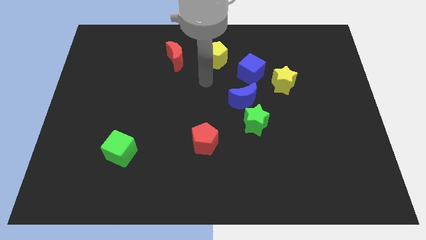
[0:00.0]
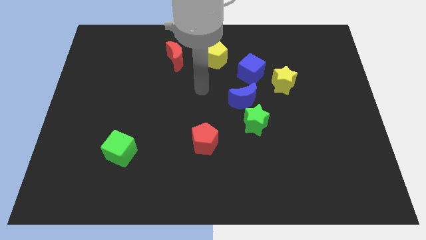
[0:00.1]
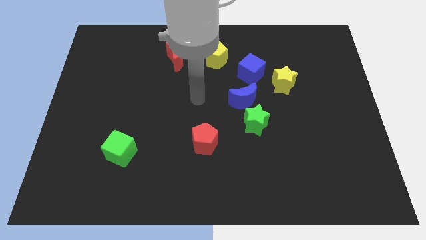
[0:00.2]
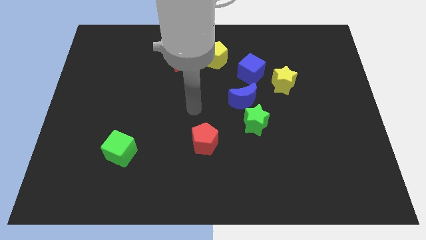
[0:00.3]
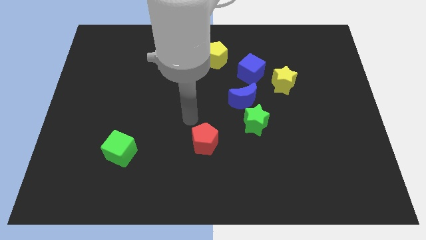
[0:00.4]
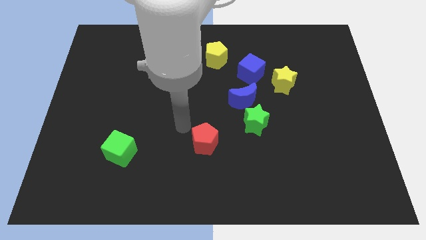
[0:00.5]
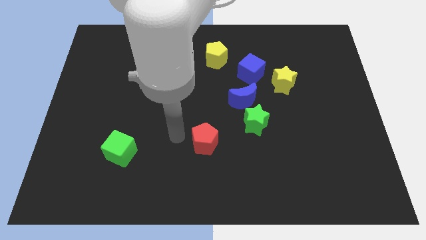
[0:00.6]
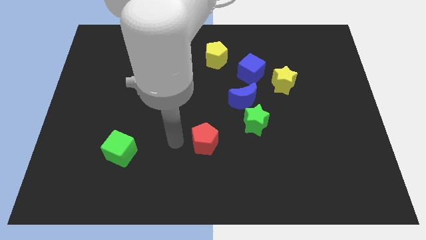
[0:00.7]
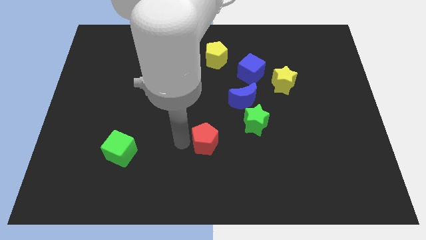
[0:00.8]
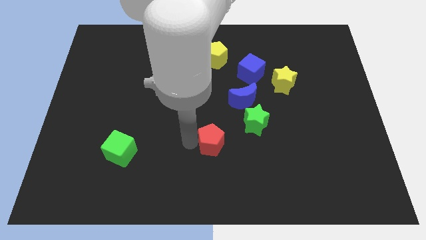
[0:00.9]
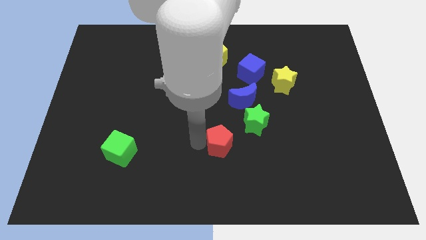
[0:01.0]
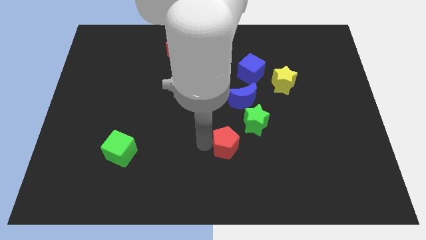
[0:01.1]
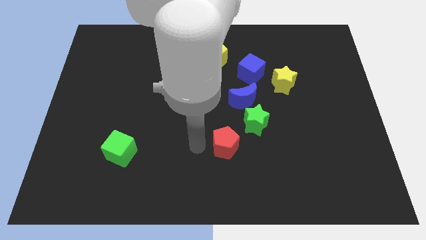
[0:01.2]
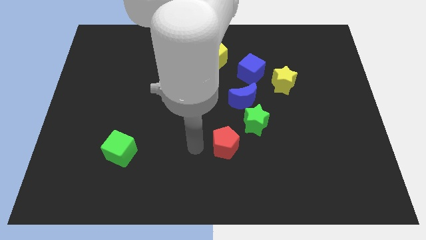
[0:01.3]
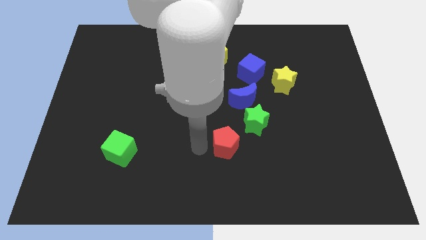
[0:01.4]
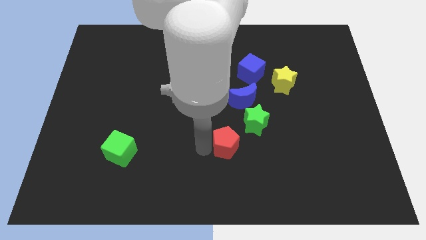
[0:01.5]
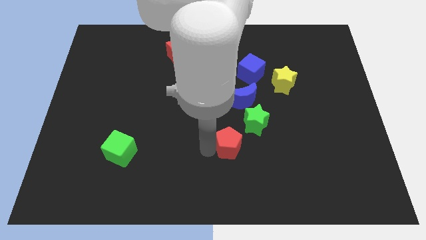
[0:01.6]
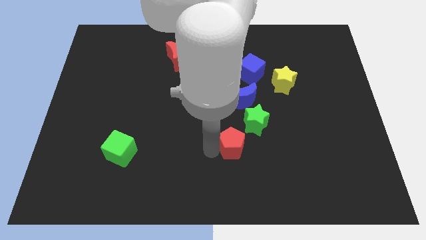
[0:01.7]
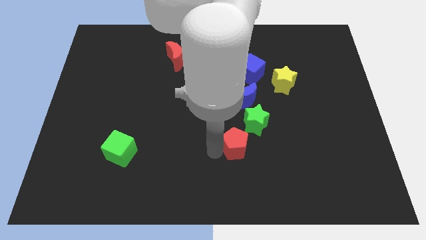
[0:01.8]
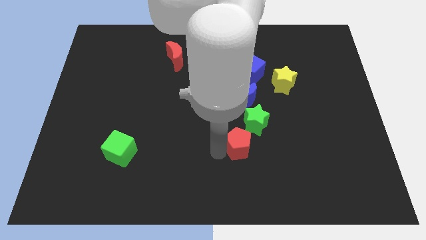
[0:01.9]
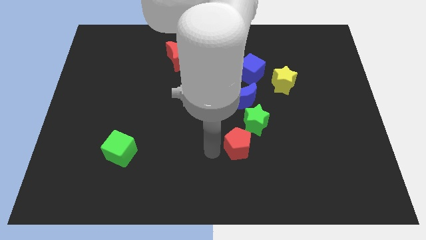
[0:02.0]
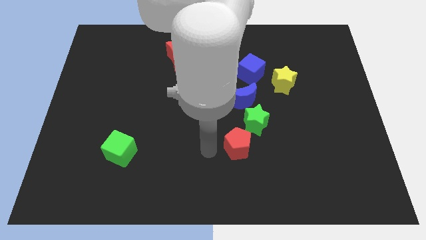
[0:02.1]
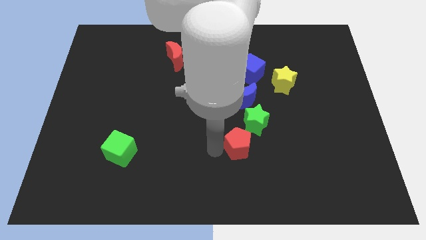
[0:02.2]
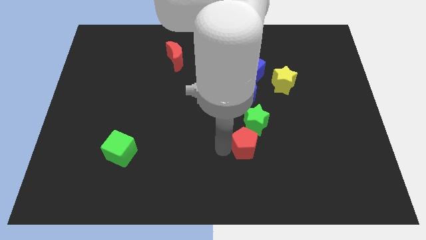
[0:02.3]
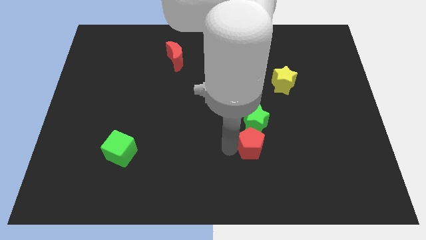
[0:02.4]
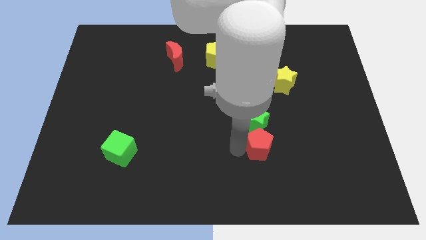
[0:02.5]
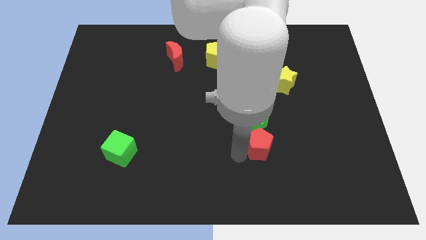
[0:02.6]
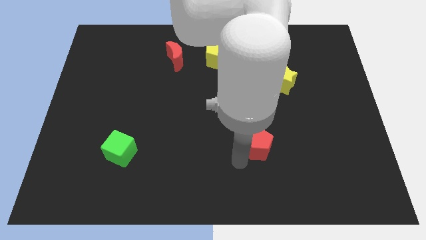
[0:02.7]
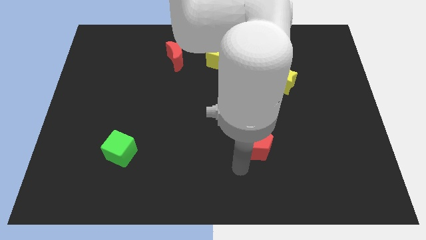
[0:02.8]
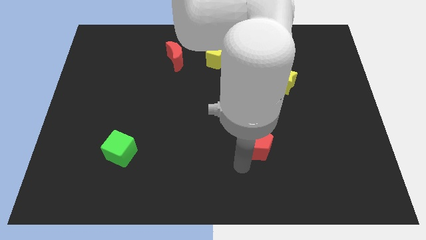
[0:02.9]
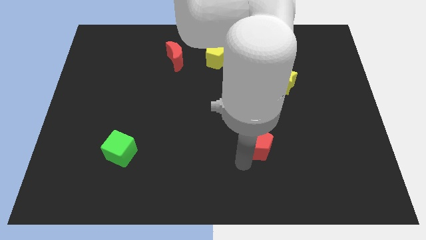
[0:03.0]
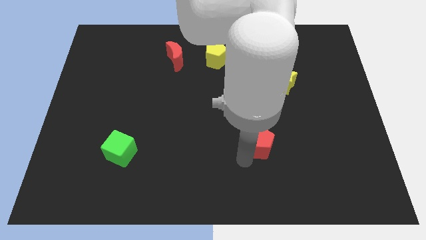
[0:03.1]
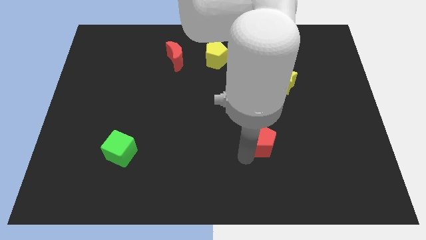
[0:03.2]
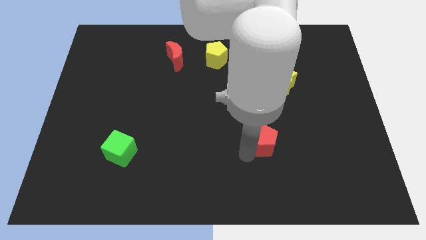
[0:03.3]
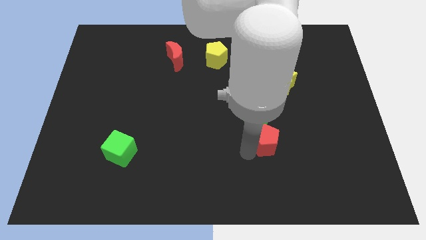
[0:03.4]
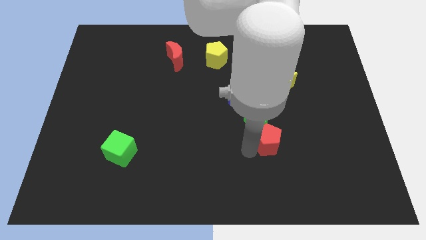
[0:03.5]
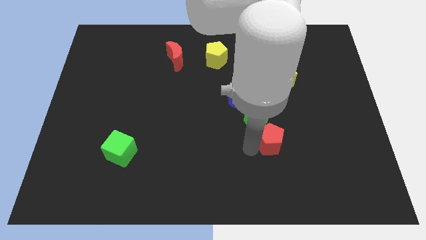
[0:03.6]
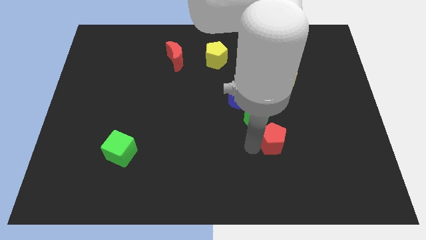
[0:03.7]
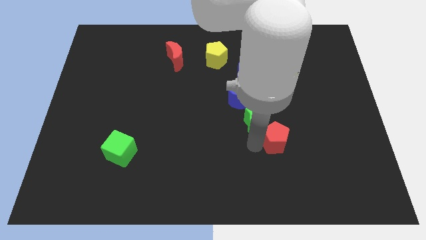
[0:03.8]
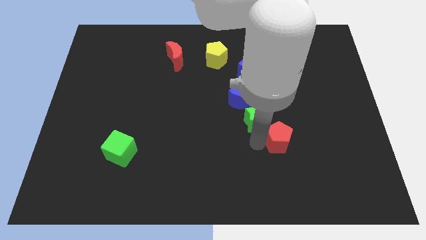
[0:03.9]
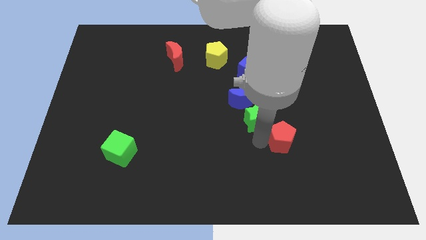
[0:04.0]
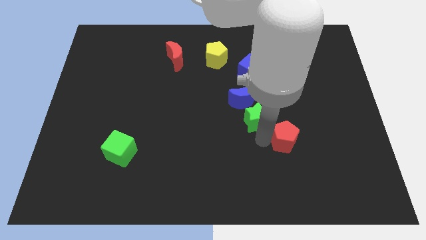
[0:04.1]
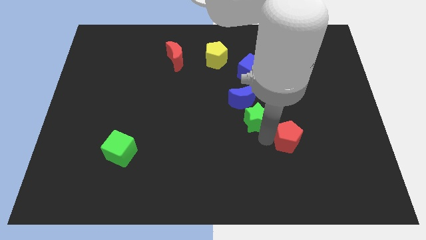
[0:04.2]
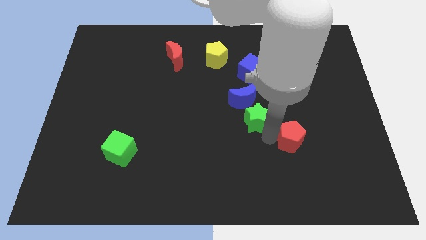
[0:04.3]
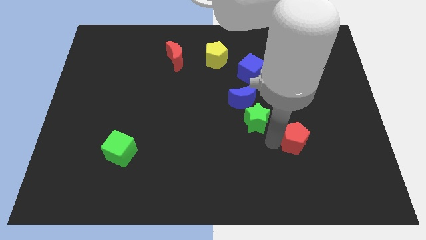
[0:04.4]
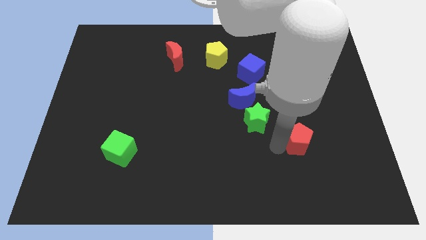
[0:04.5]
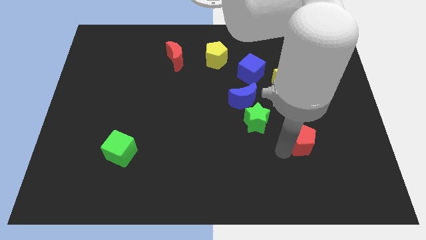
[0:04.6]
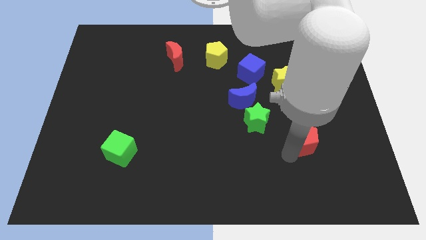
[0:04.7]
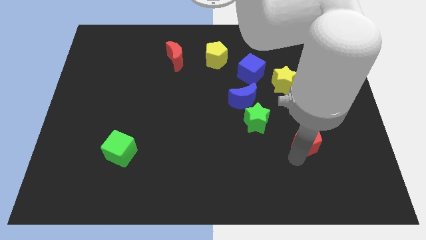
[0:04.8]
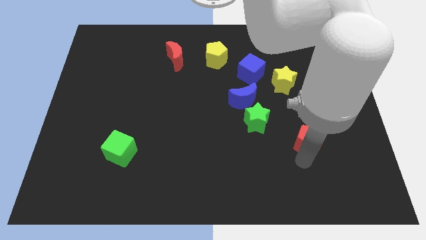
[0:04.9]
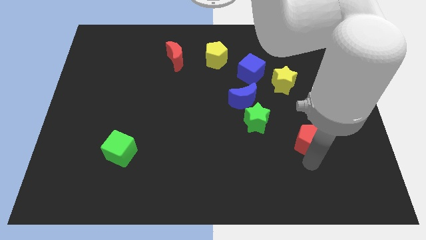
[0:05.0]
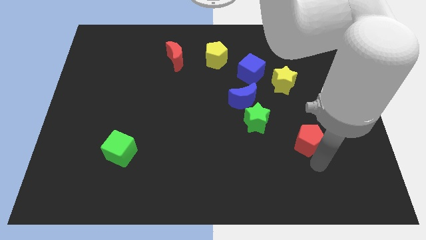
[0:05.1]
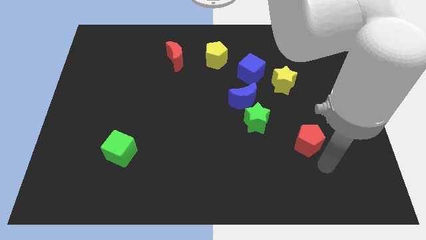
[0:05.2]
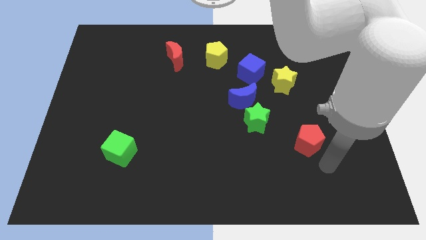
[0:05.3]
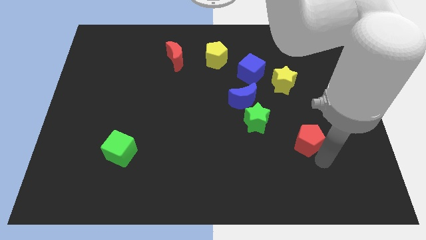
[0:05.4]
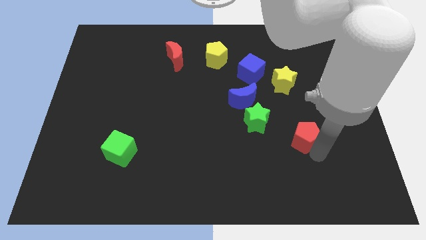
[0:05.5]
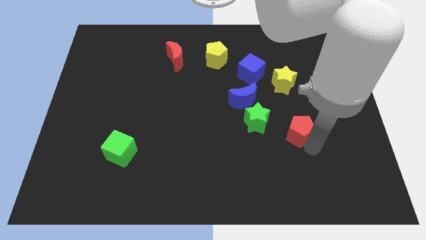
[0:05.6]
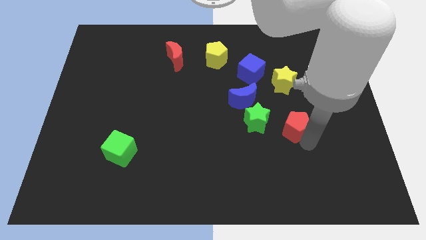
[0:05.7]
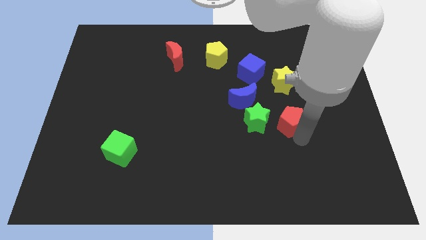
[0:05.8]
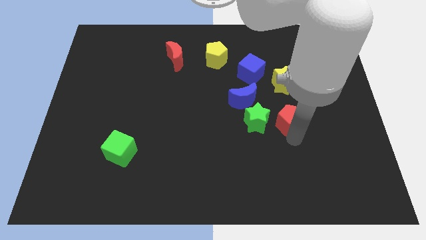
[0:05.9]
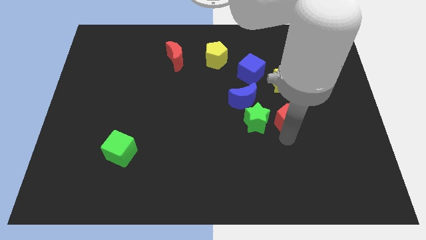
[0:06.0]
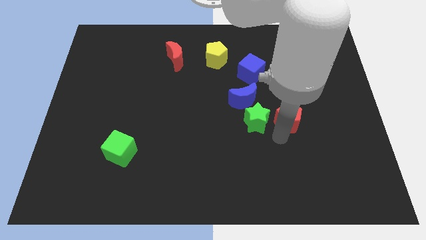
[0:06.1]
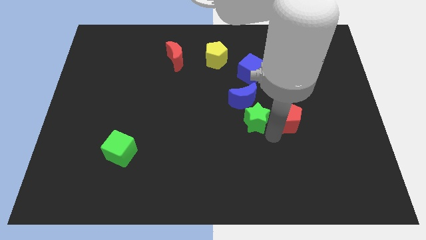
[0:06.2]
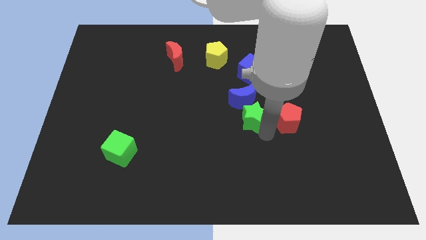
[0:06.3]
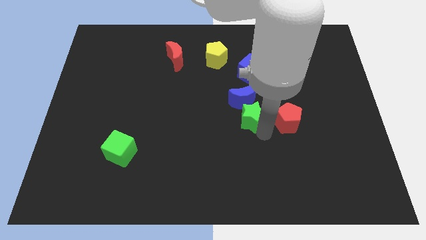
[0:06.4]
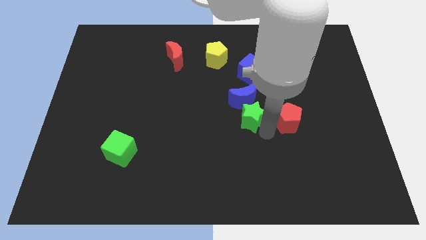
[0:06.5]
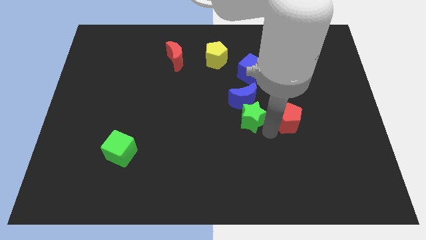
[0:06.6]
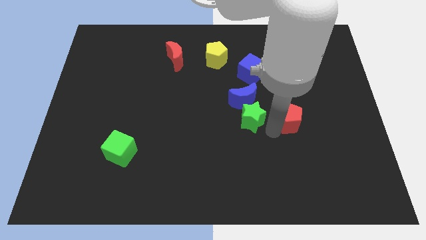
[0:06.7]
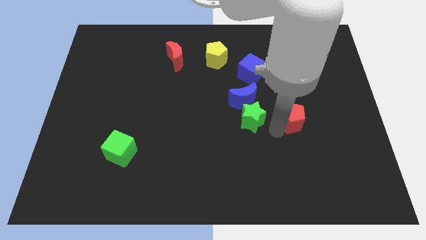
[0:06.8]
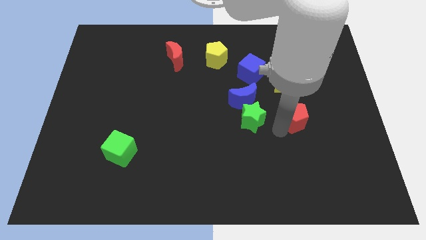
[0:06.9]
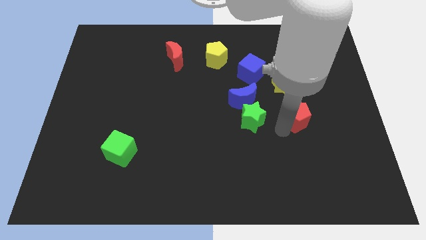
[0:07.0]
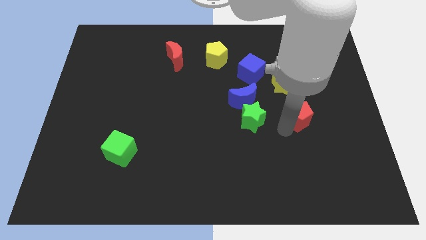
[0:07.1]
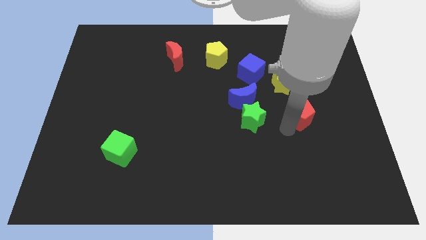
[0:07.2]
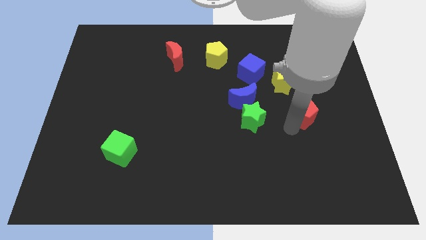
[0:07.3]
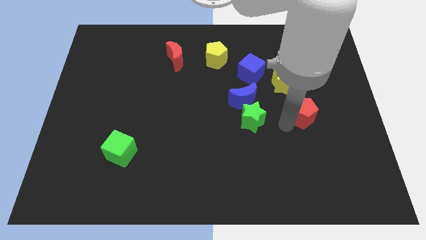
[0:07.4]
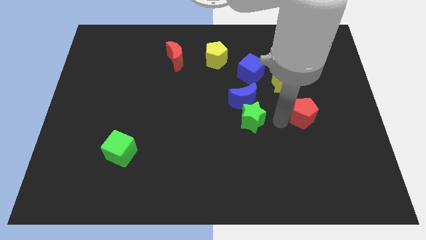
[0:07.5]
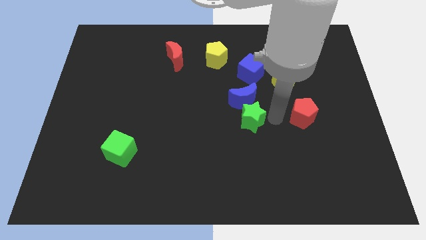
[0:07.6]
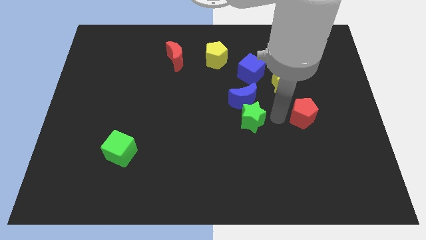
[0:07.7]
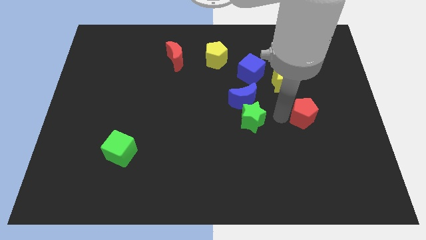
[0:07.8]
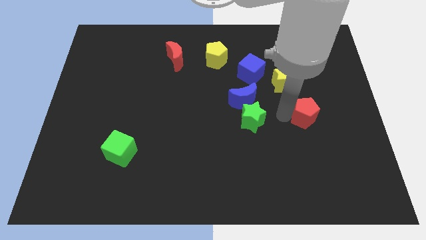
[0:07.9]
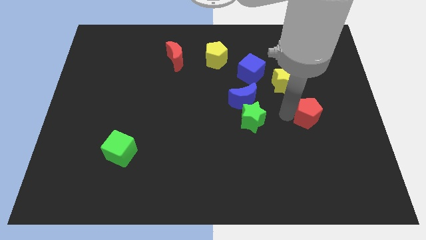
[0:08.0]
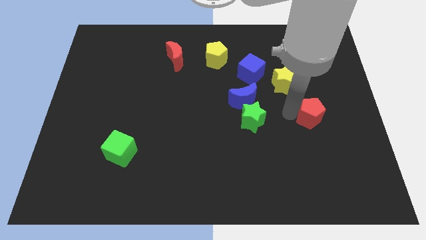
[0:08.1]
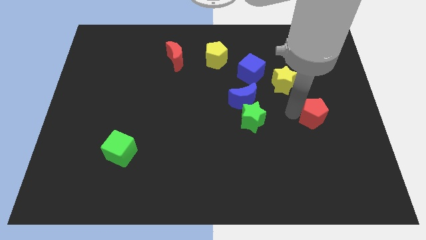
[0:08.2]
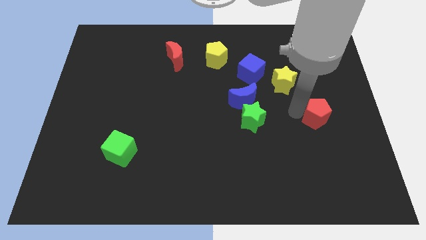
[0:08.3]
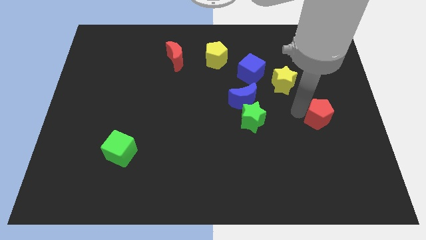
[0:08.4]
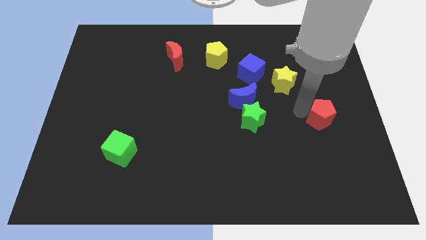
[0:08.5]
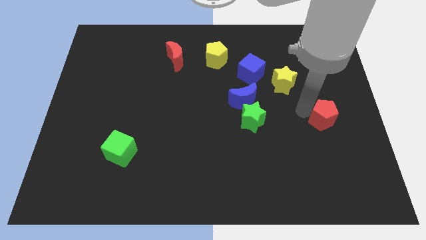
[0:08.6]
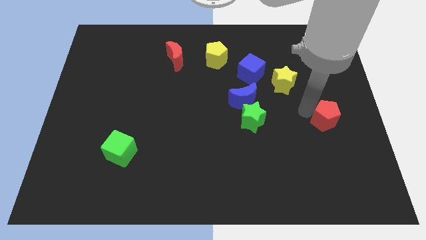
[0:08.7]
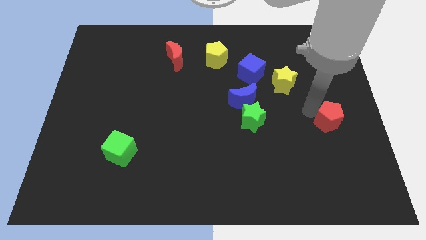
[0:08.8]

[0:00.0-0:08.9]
put the red pentagon to the right side of the board
